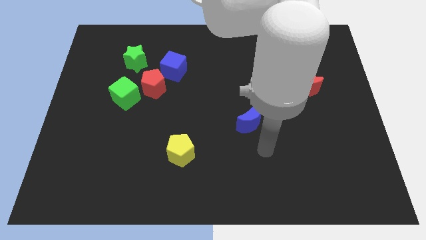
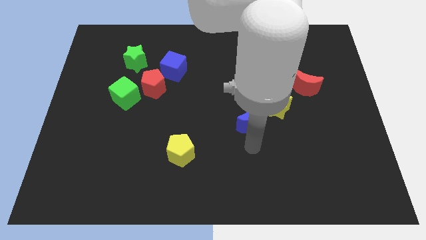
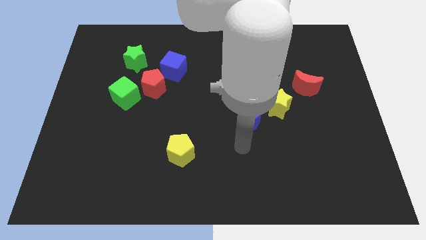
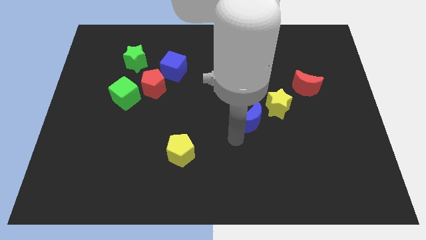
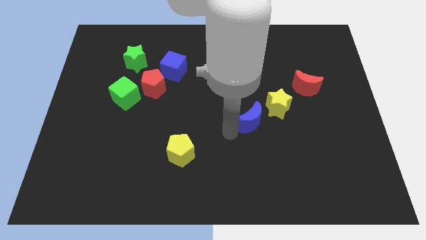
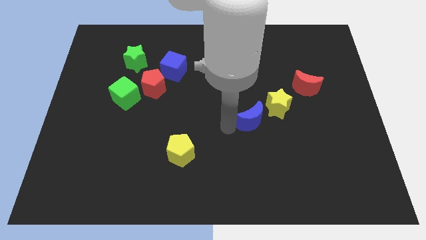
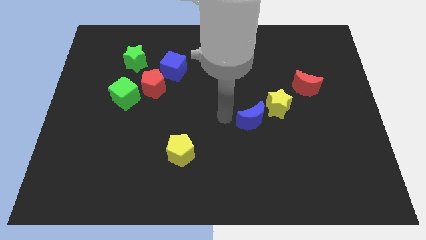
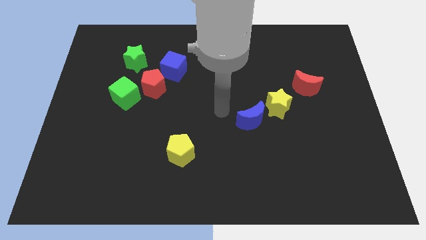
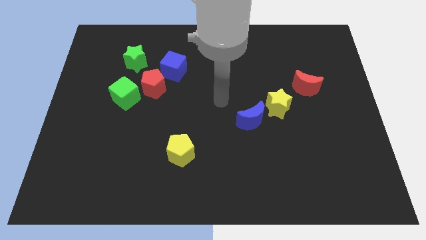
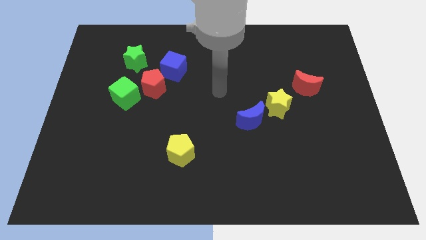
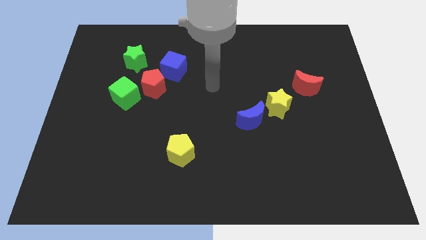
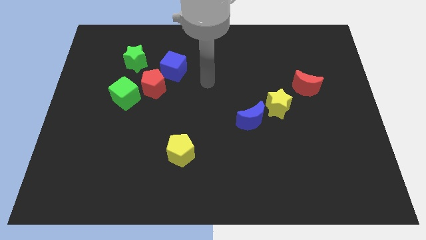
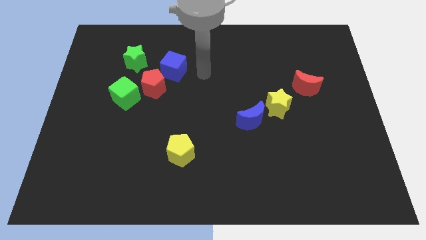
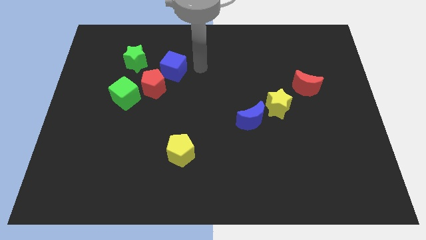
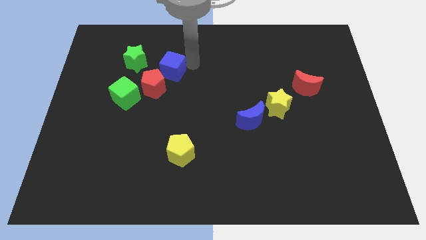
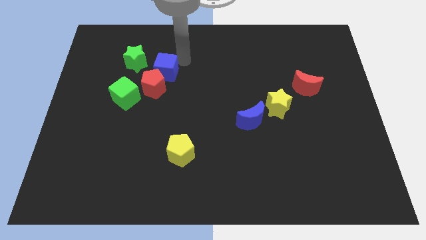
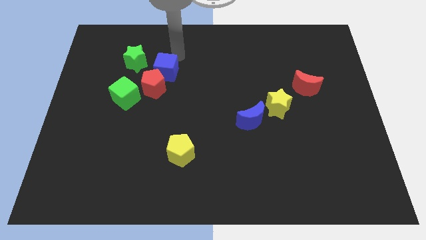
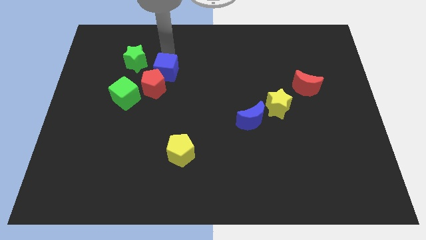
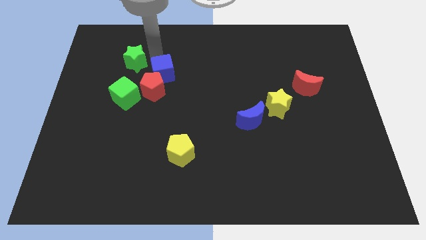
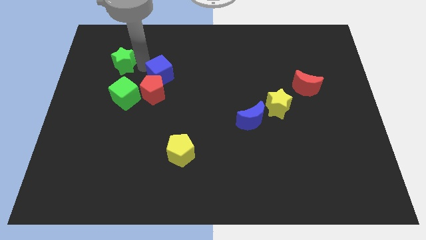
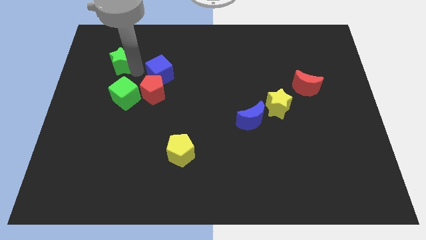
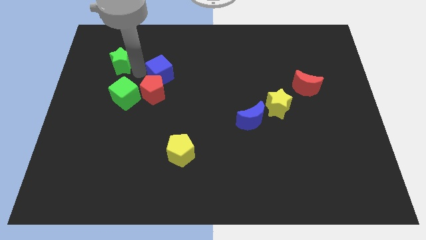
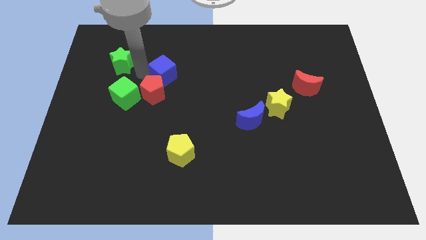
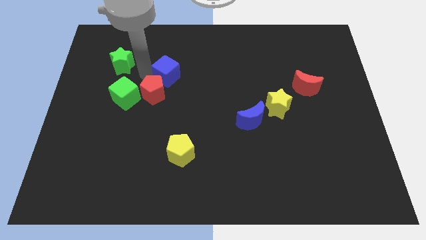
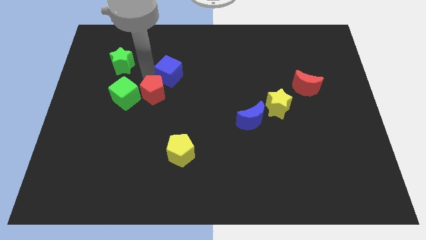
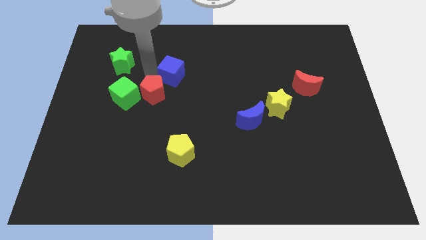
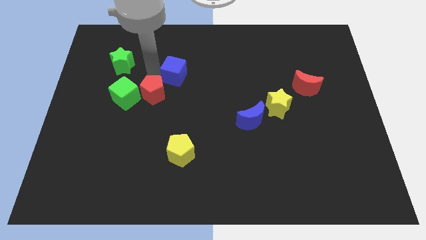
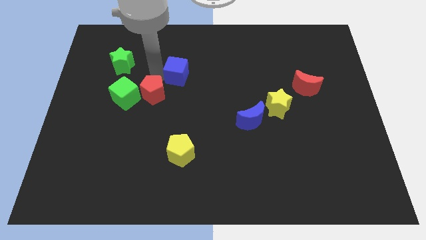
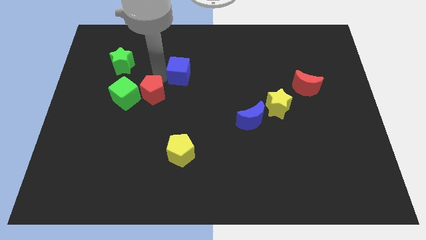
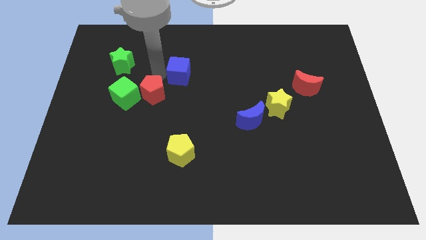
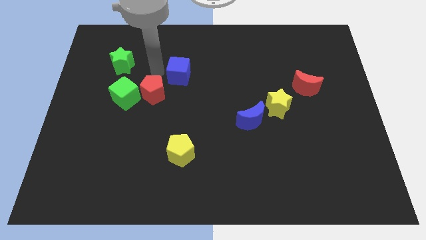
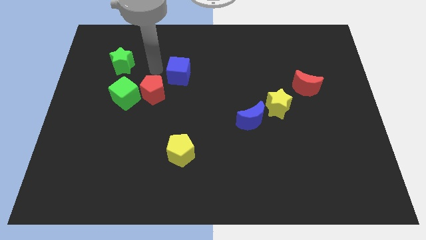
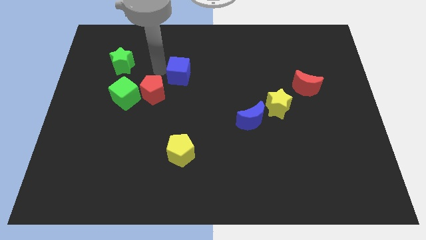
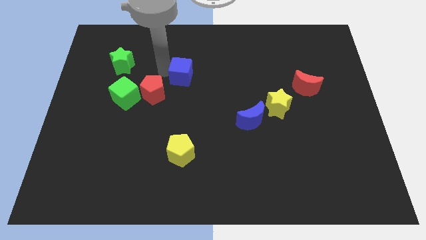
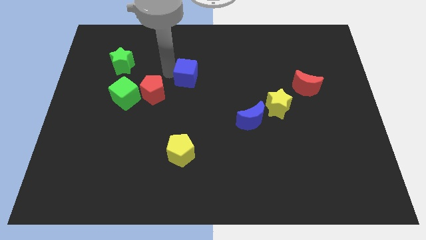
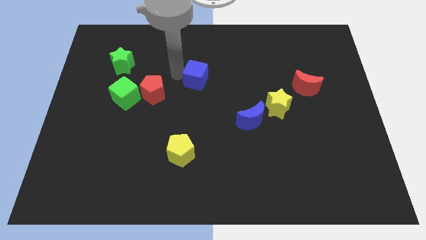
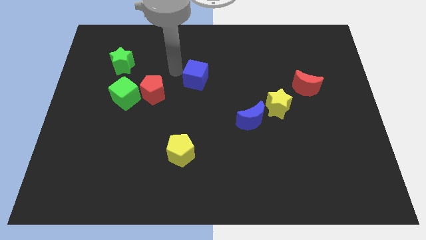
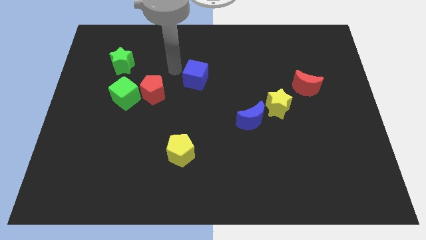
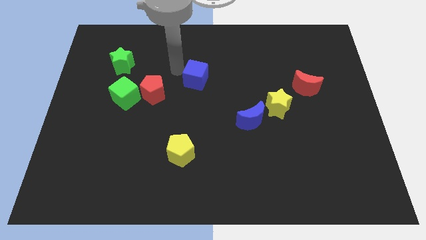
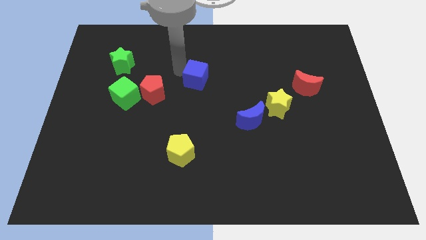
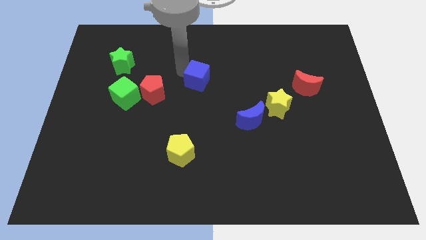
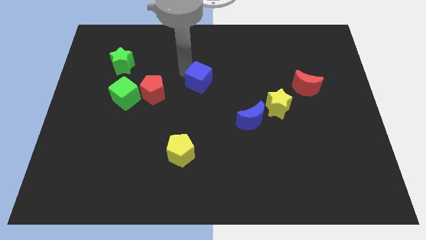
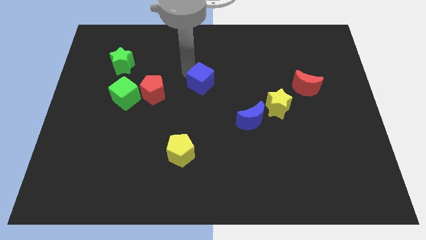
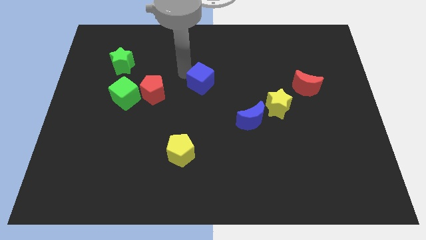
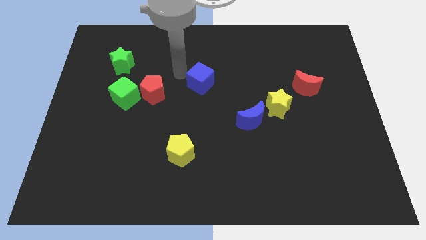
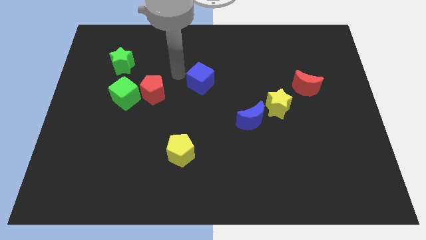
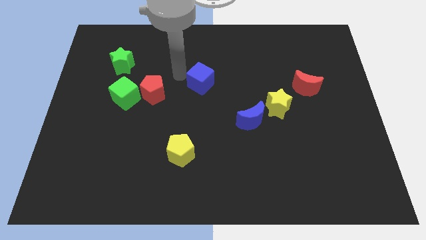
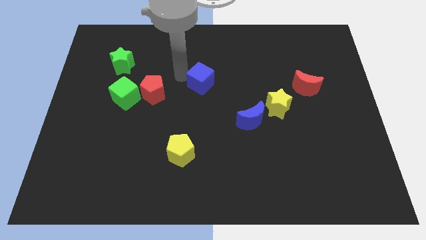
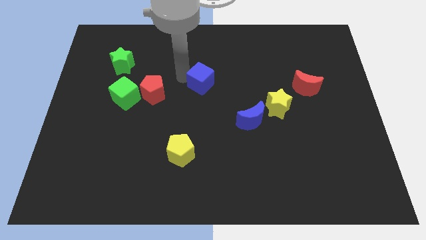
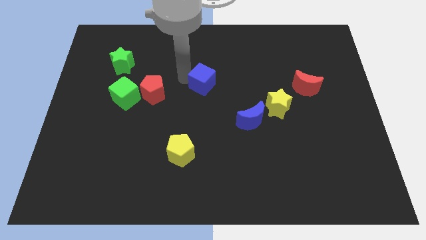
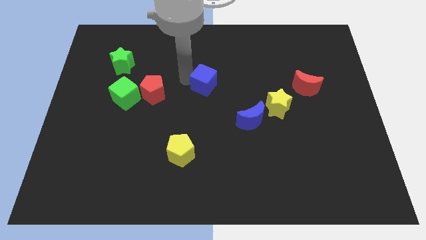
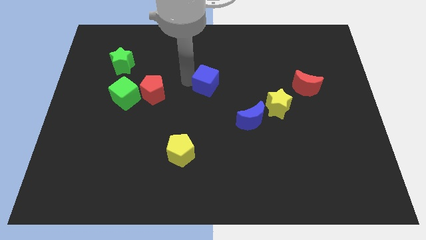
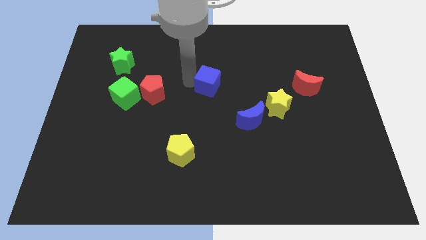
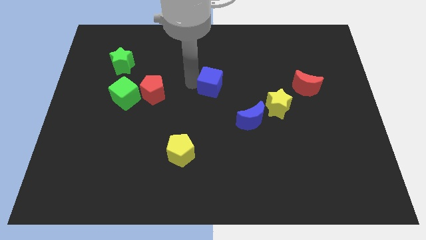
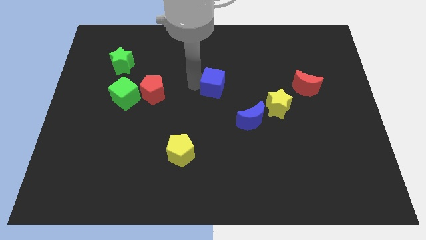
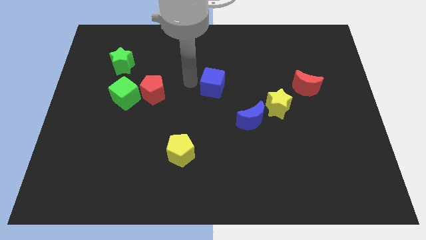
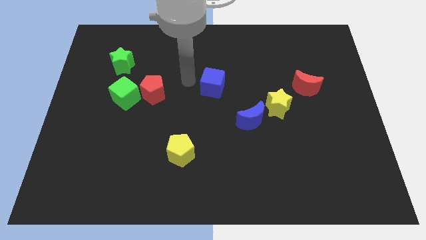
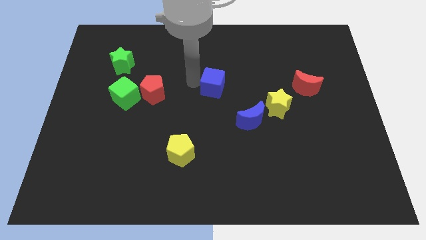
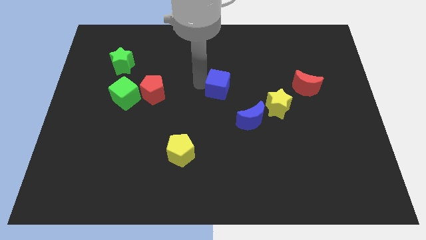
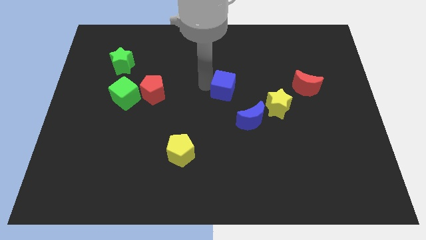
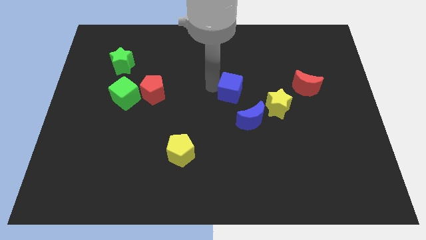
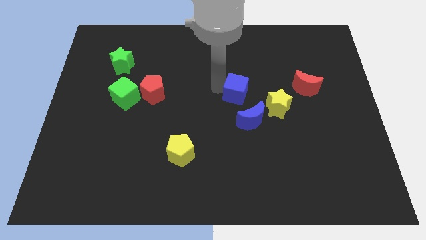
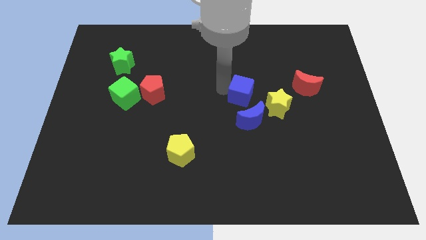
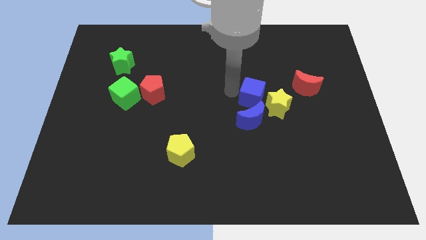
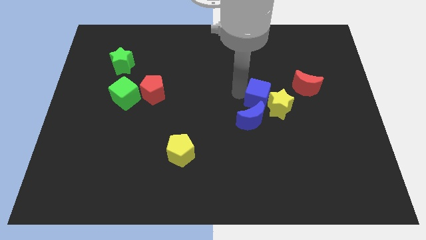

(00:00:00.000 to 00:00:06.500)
move the blue cube next to the yellow star
